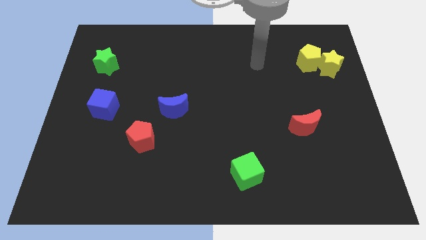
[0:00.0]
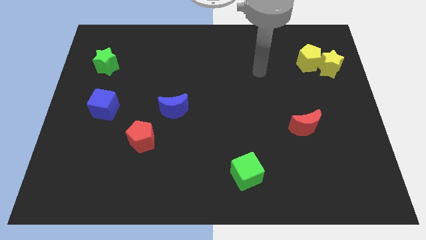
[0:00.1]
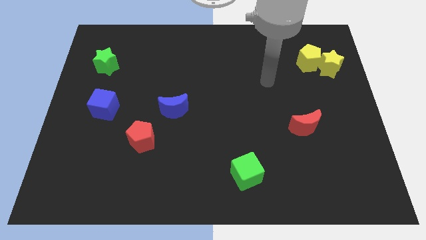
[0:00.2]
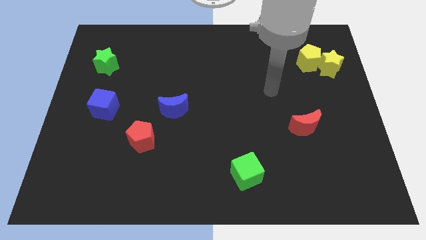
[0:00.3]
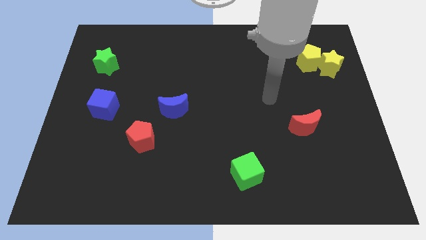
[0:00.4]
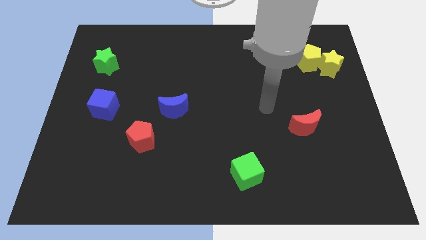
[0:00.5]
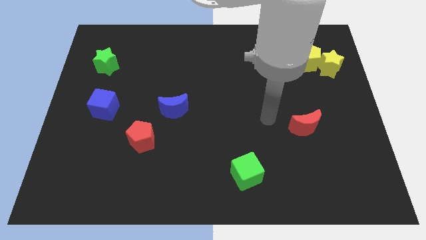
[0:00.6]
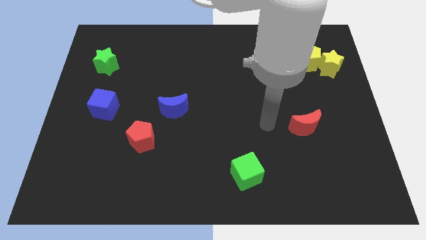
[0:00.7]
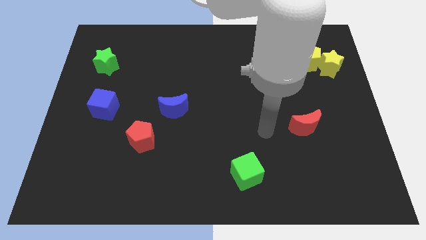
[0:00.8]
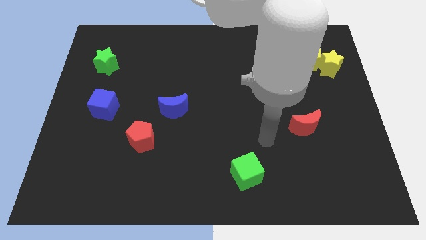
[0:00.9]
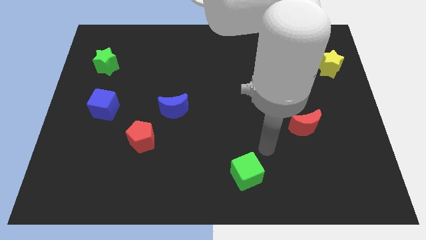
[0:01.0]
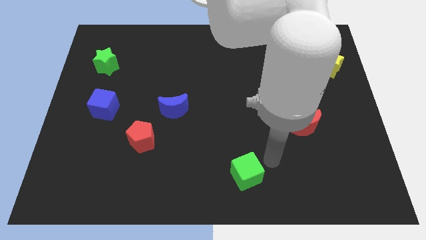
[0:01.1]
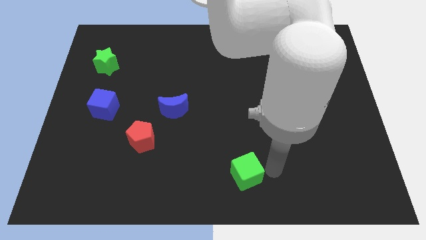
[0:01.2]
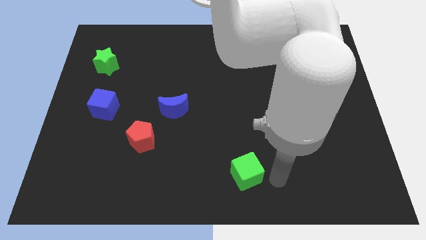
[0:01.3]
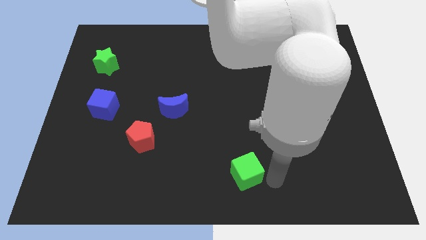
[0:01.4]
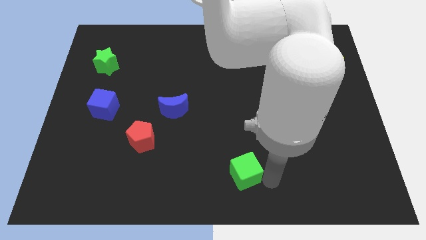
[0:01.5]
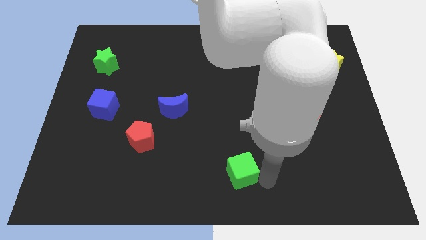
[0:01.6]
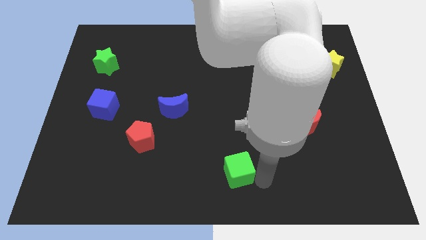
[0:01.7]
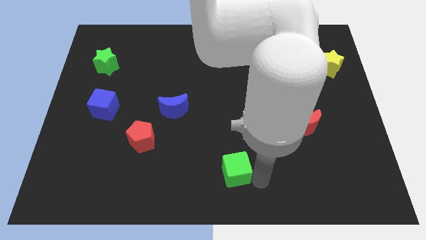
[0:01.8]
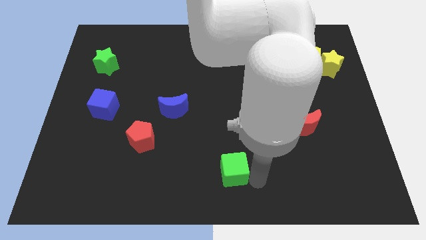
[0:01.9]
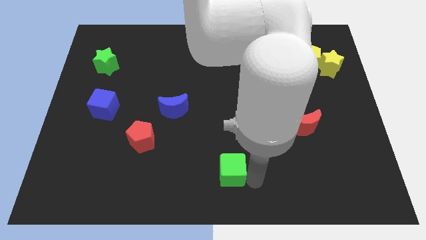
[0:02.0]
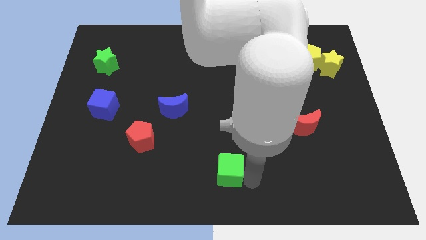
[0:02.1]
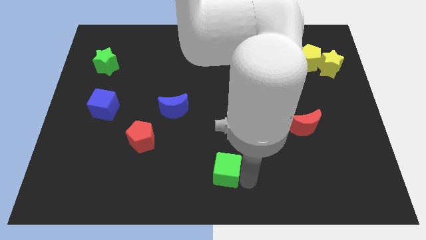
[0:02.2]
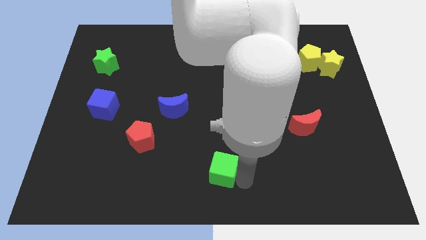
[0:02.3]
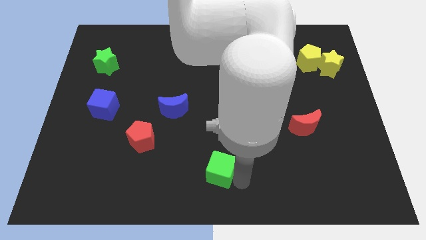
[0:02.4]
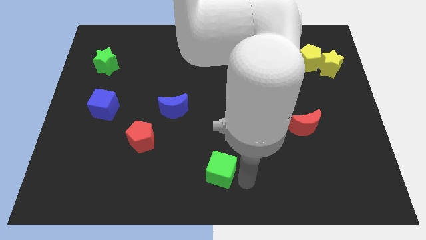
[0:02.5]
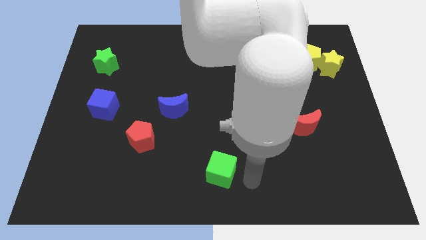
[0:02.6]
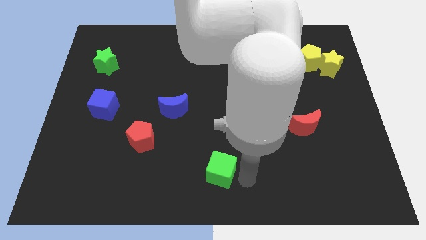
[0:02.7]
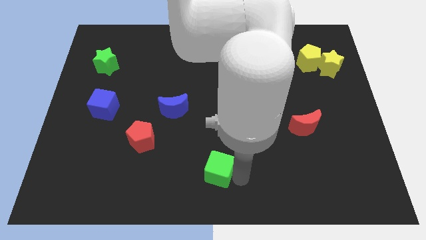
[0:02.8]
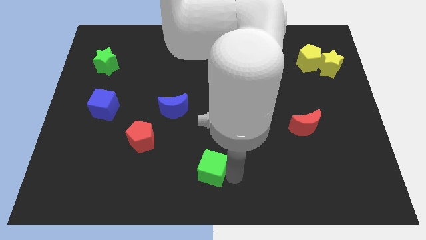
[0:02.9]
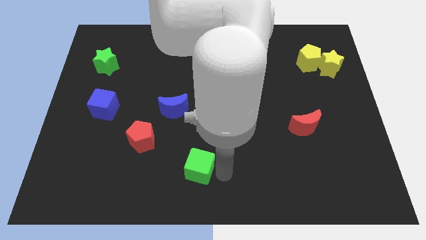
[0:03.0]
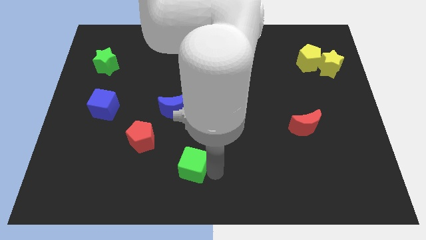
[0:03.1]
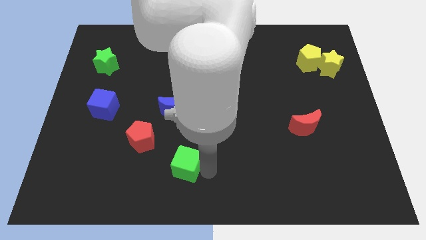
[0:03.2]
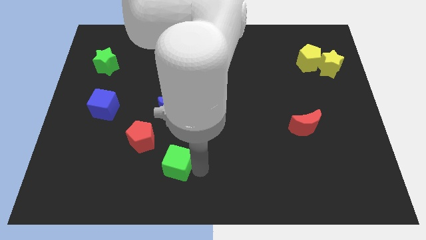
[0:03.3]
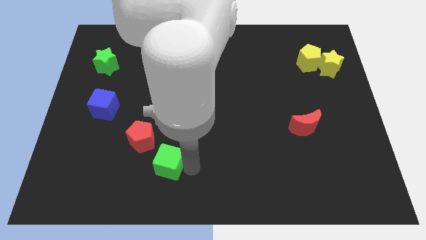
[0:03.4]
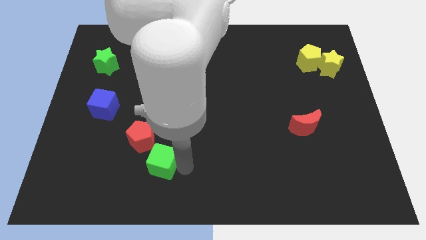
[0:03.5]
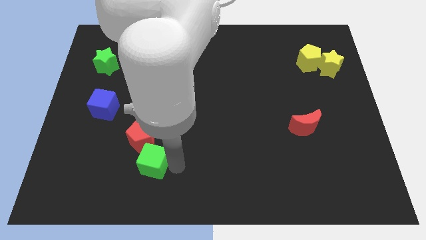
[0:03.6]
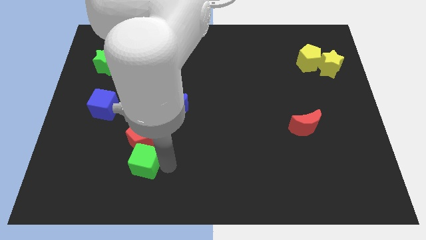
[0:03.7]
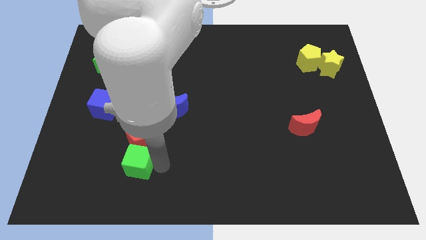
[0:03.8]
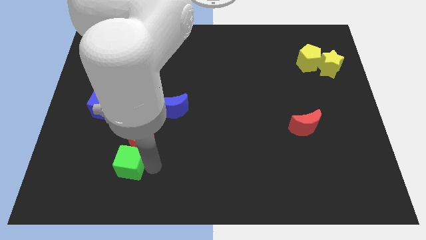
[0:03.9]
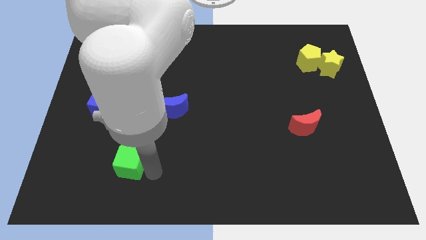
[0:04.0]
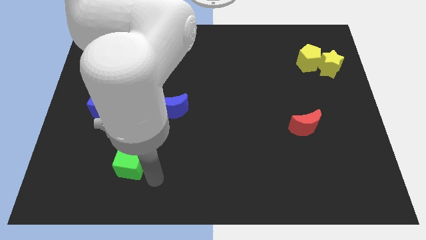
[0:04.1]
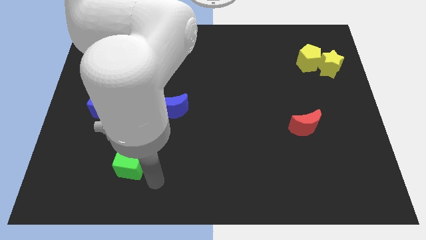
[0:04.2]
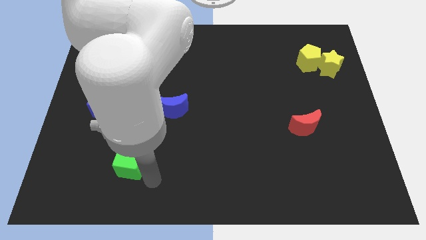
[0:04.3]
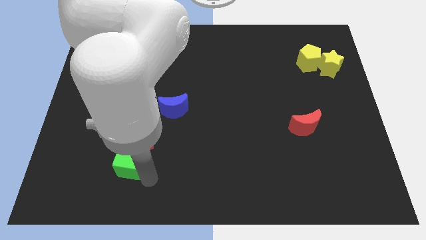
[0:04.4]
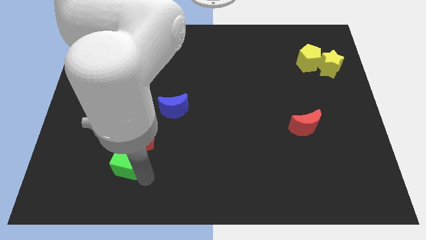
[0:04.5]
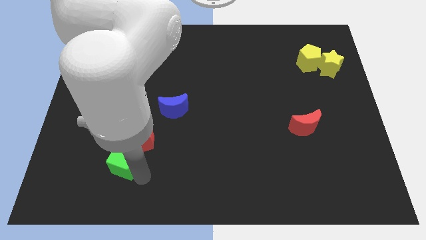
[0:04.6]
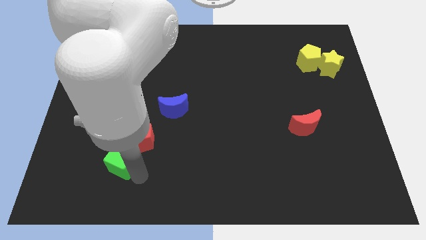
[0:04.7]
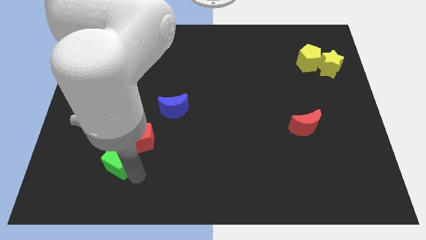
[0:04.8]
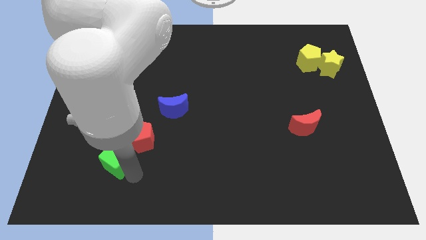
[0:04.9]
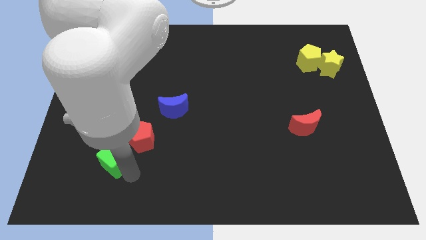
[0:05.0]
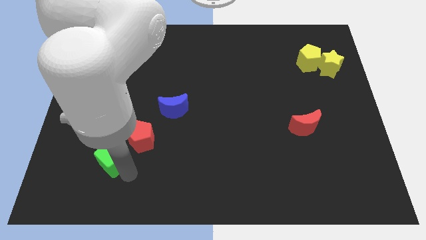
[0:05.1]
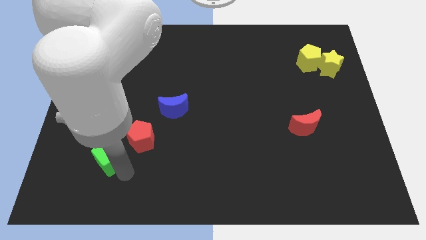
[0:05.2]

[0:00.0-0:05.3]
put the green cube below the blue cube

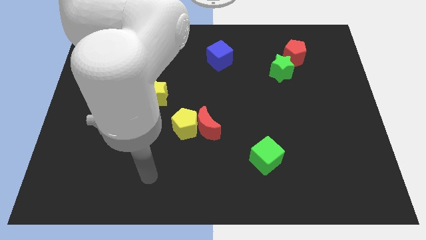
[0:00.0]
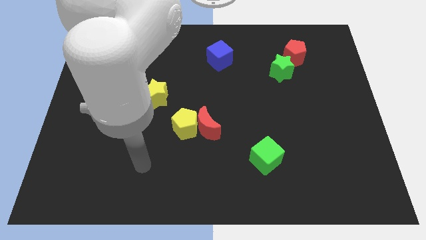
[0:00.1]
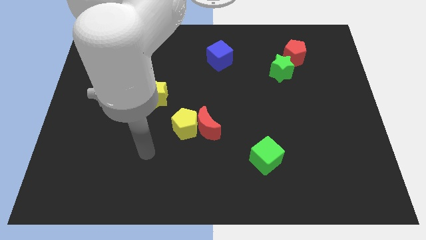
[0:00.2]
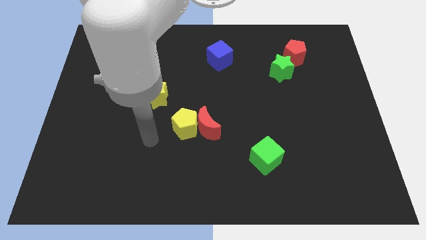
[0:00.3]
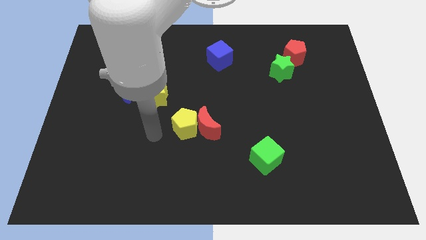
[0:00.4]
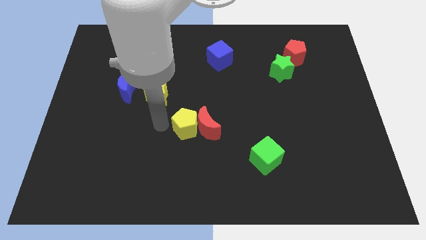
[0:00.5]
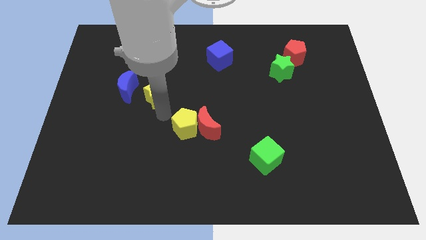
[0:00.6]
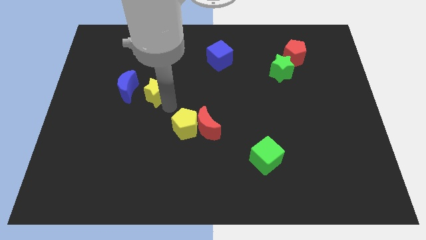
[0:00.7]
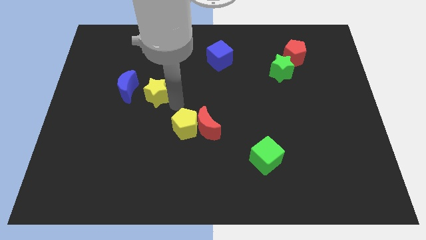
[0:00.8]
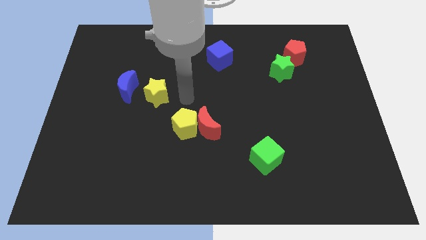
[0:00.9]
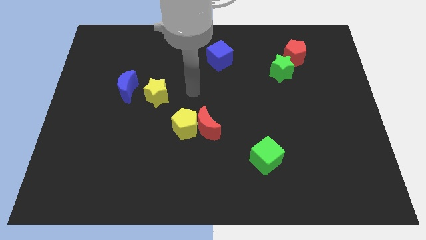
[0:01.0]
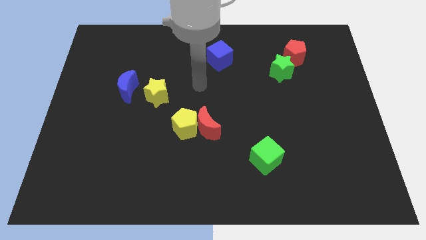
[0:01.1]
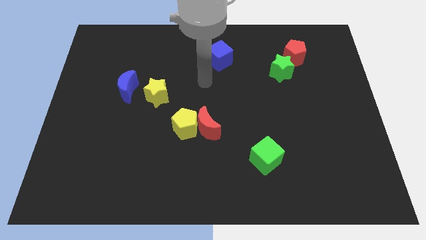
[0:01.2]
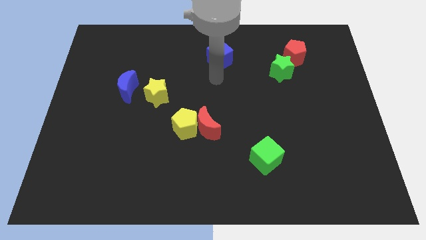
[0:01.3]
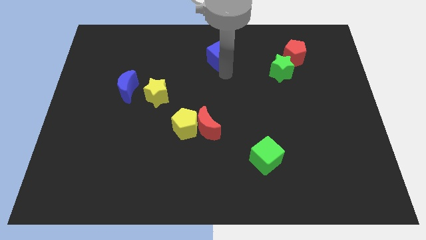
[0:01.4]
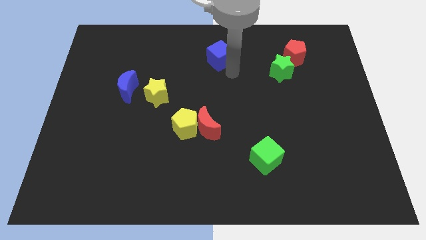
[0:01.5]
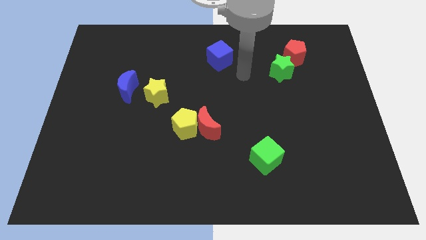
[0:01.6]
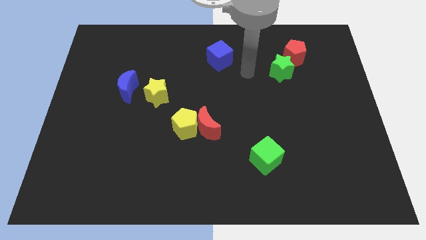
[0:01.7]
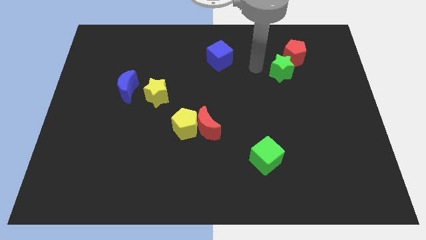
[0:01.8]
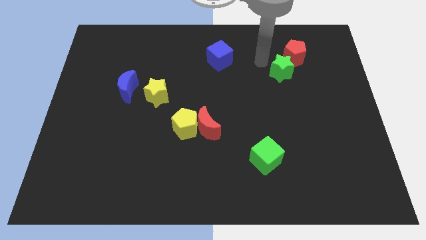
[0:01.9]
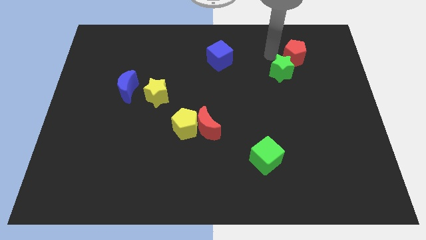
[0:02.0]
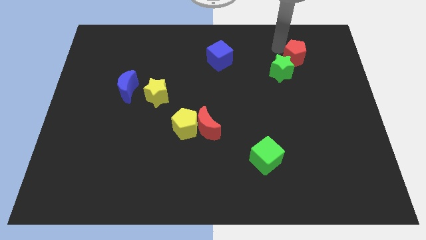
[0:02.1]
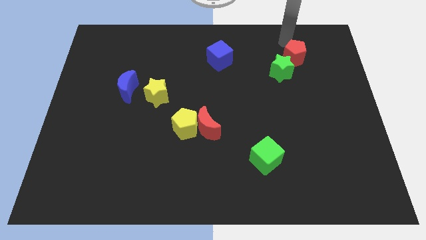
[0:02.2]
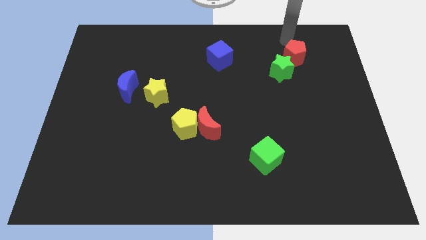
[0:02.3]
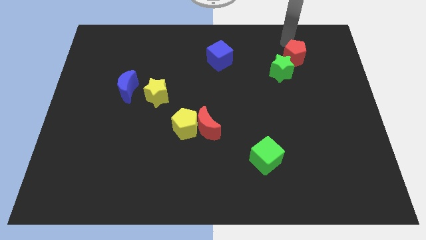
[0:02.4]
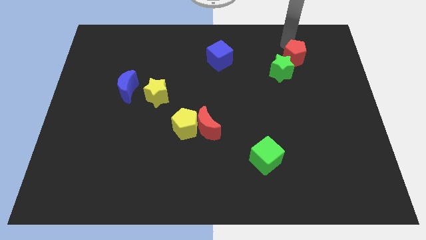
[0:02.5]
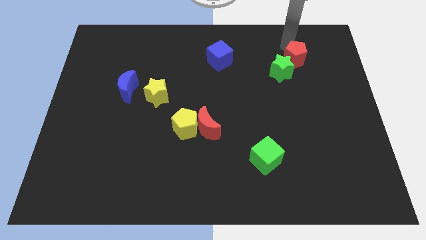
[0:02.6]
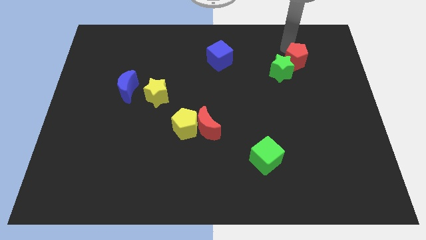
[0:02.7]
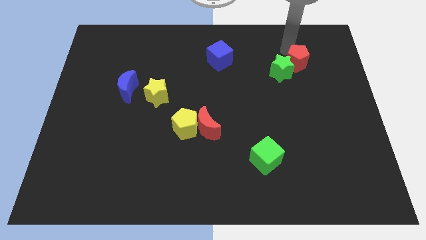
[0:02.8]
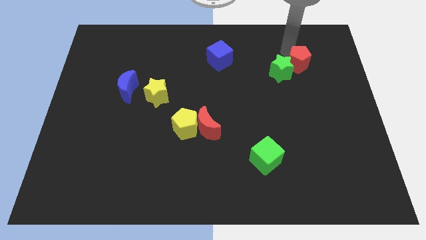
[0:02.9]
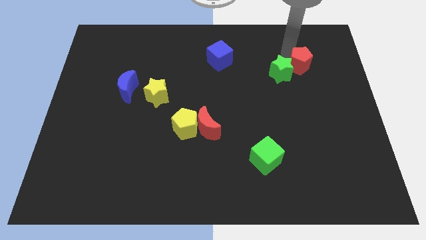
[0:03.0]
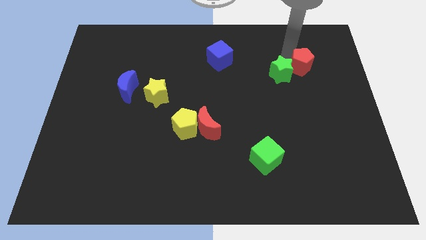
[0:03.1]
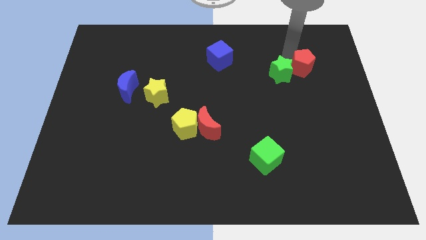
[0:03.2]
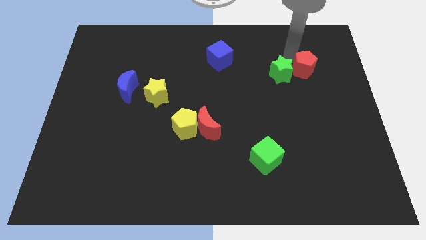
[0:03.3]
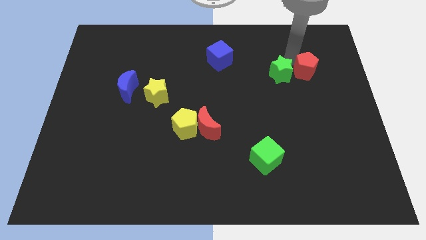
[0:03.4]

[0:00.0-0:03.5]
put the red pentagon diagonally down and to the right of the green star
